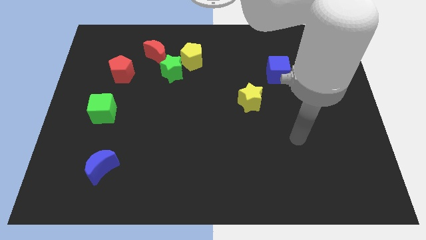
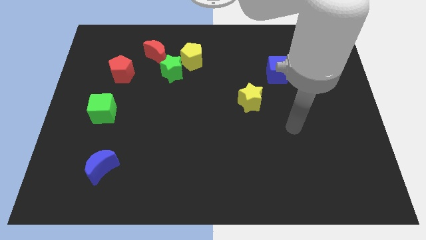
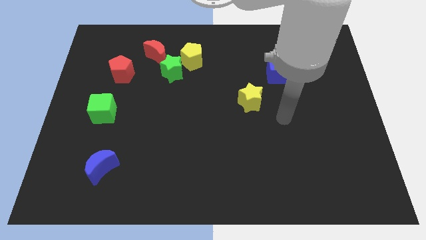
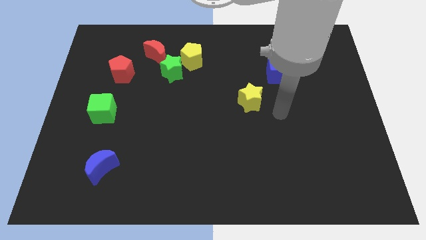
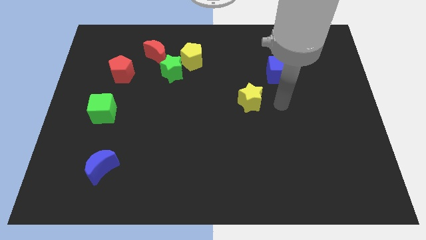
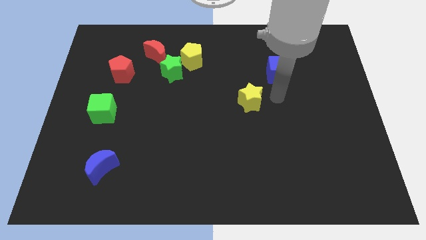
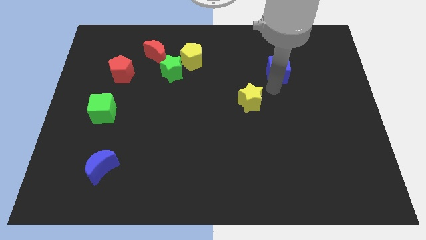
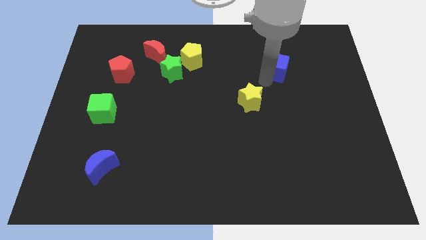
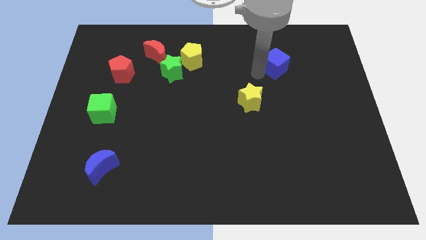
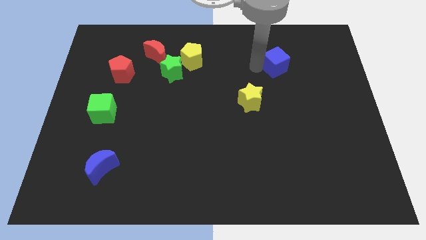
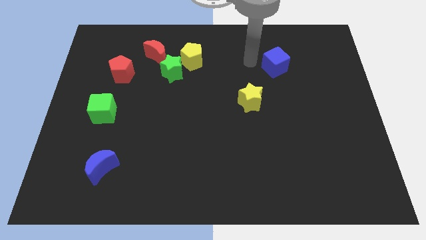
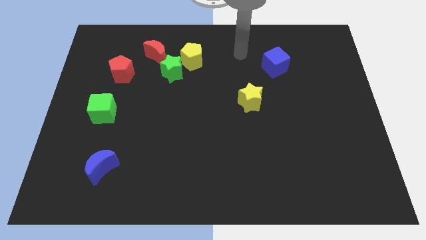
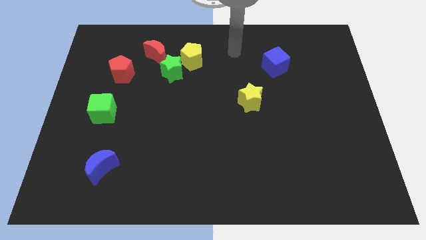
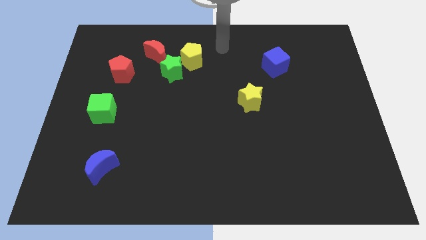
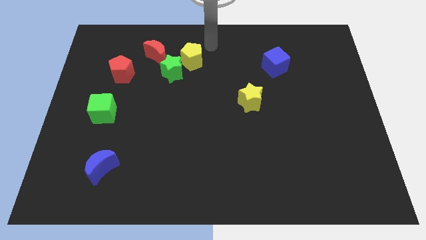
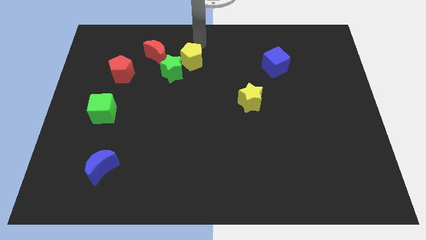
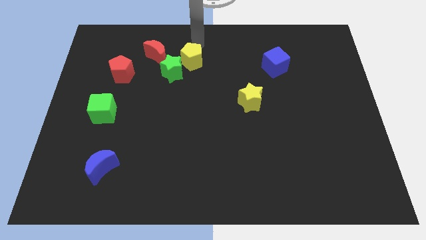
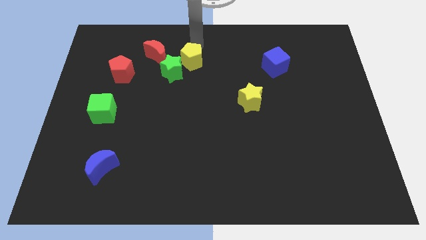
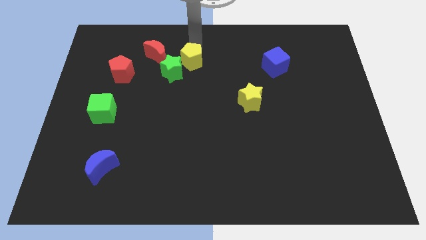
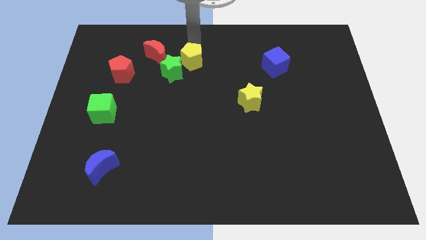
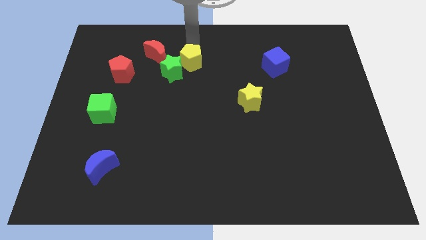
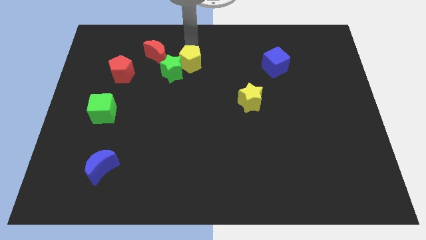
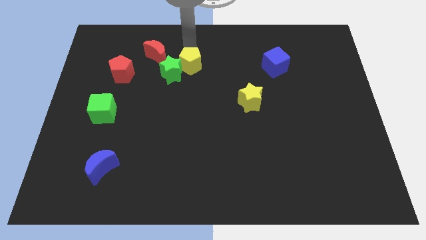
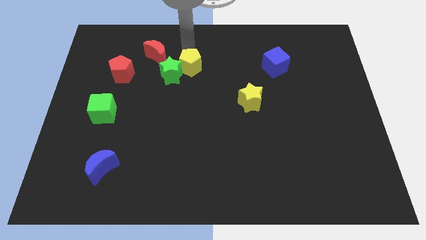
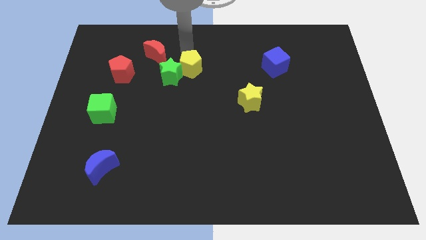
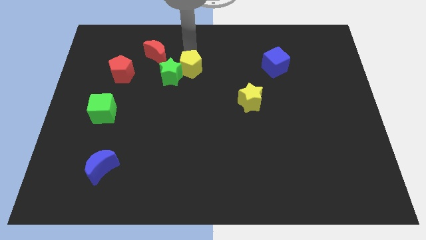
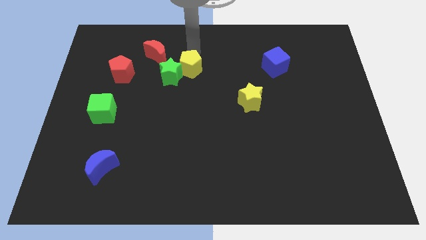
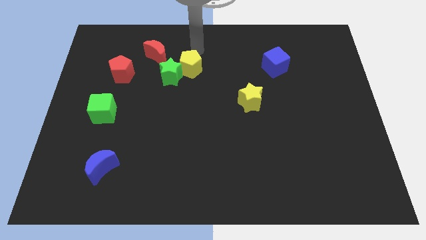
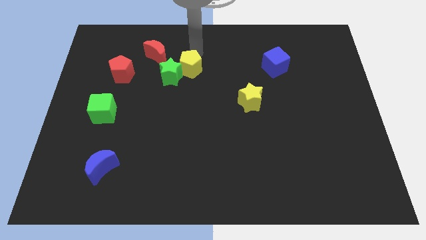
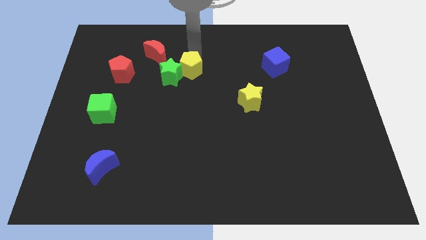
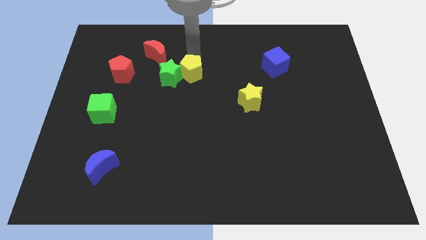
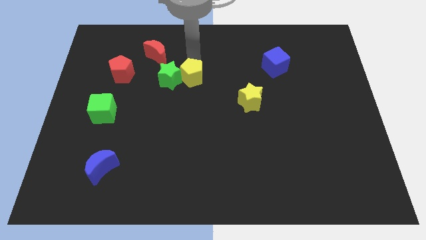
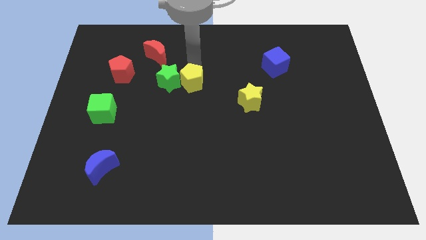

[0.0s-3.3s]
move the yellow pentagon somewhat downwards

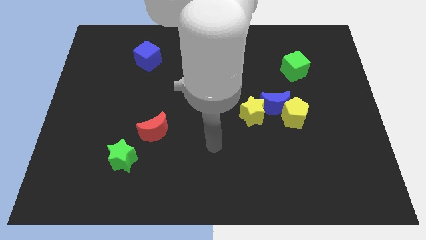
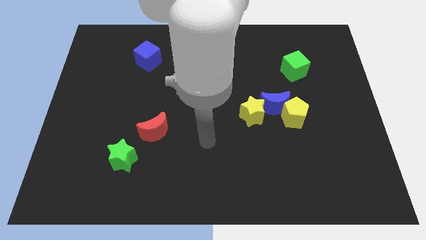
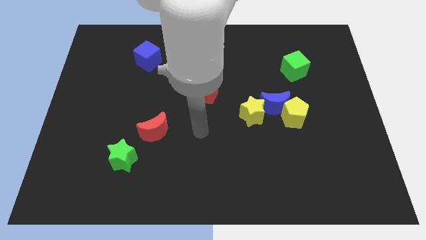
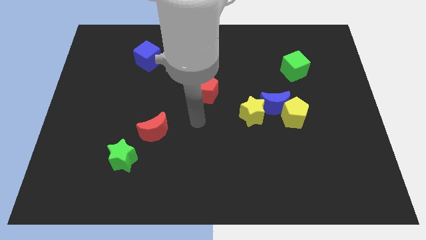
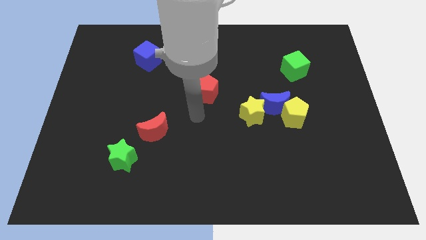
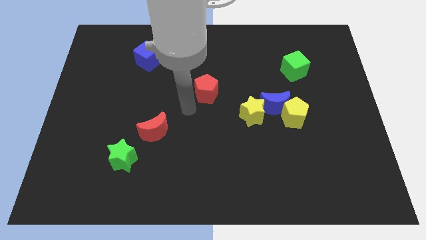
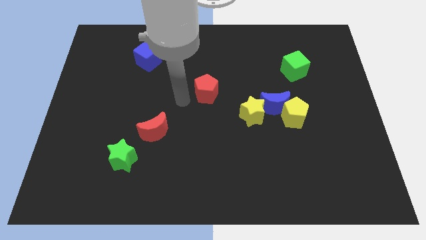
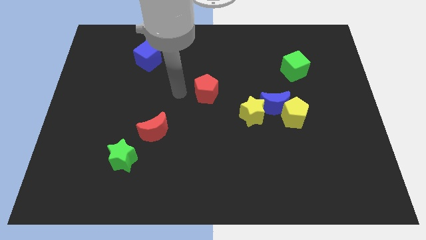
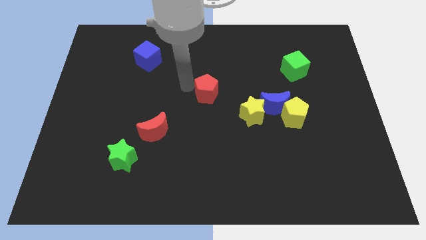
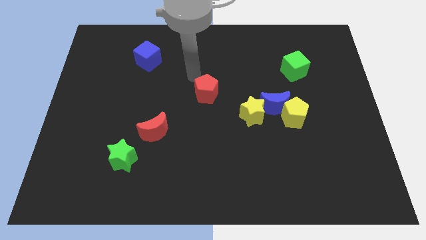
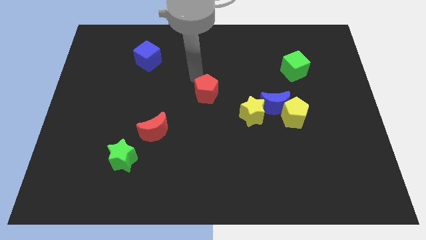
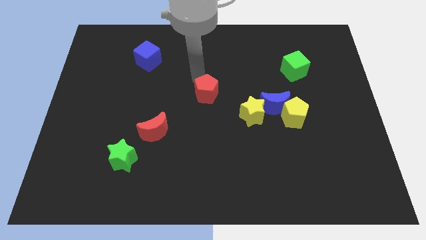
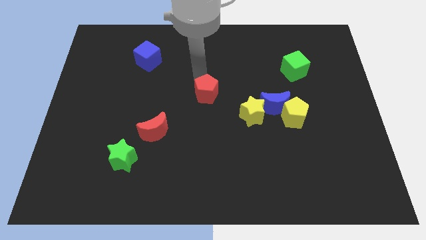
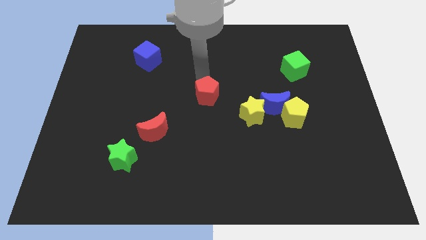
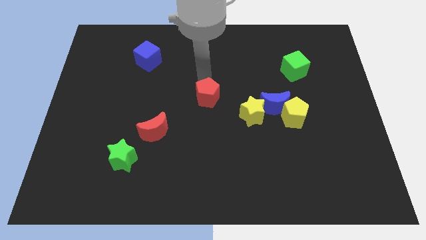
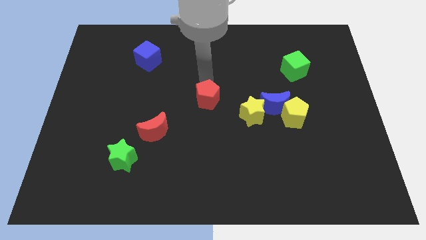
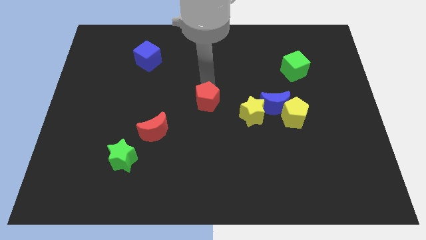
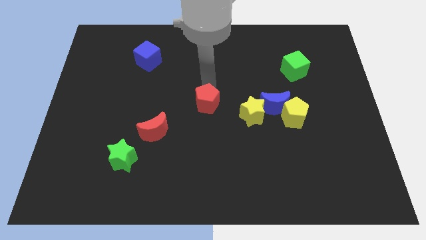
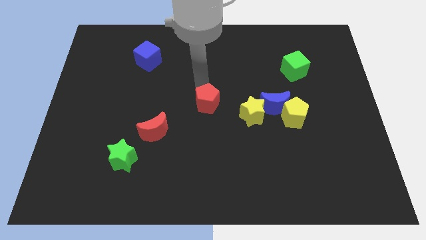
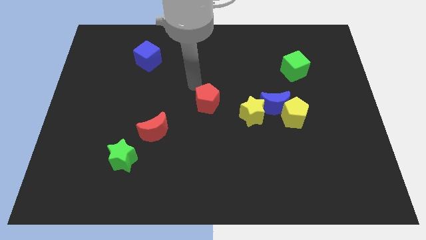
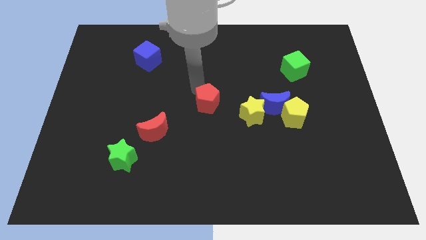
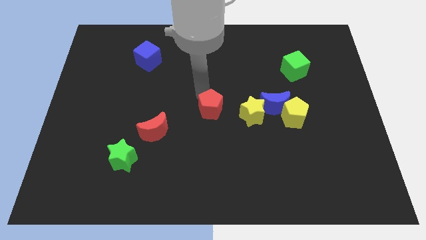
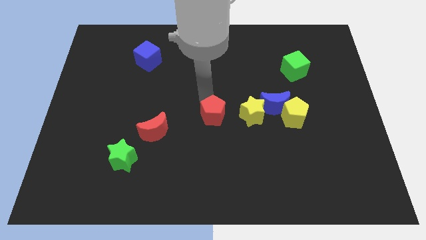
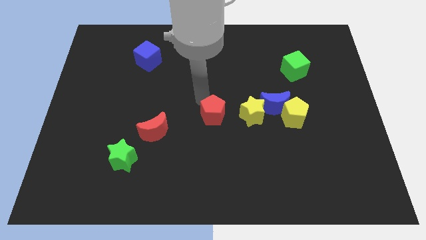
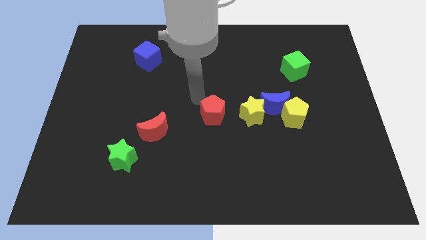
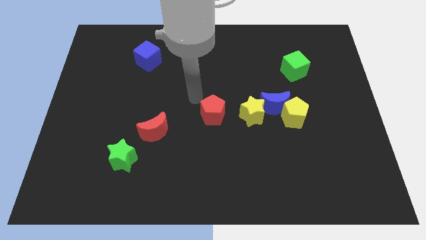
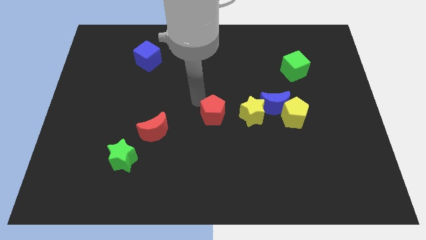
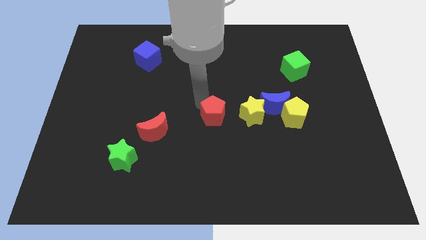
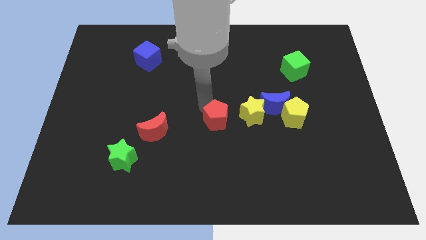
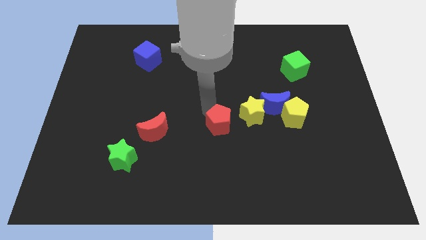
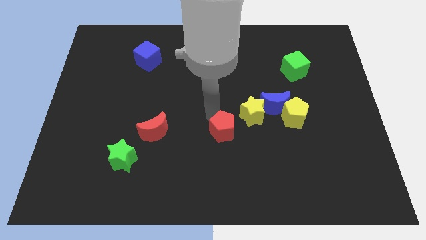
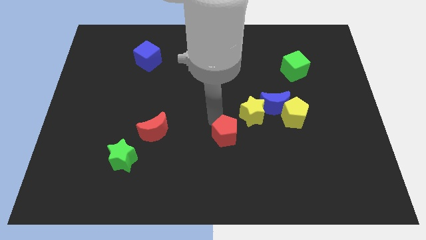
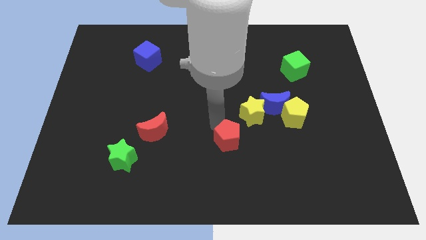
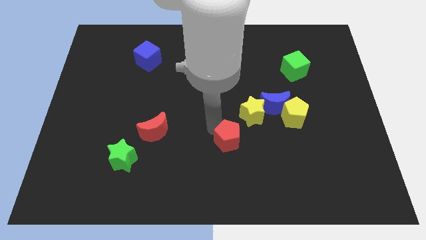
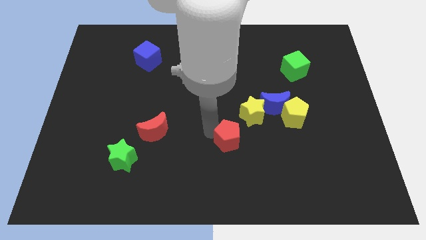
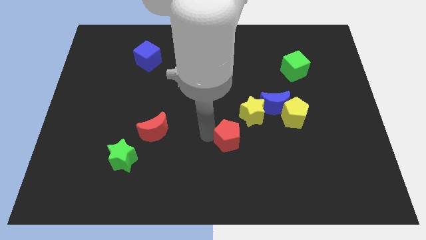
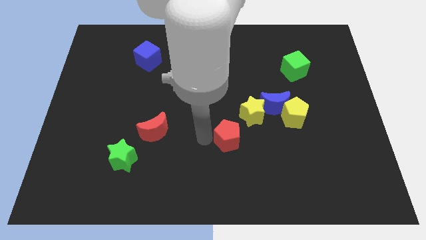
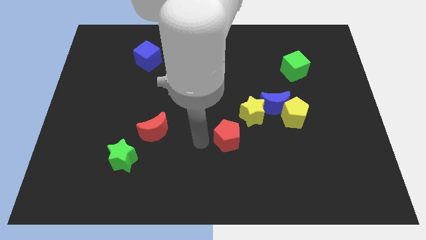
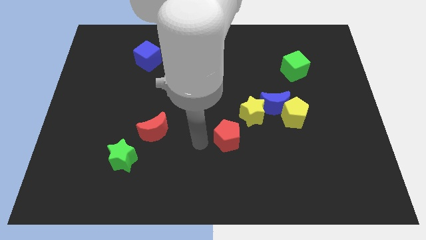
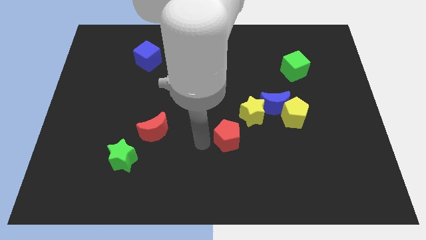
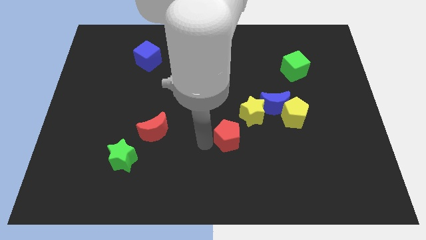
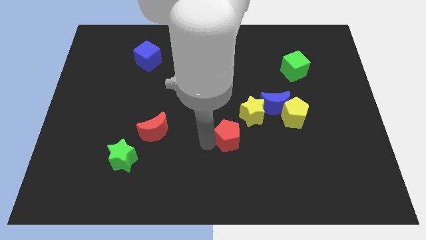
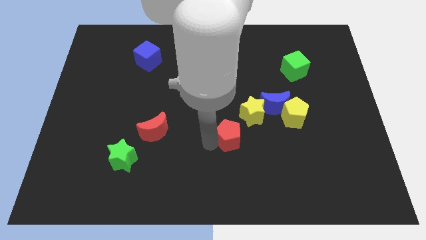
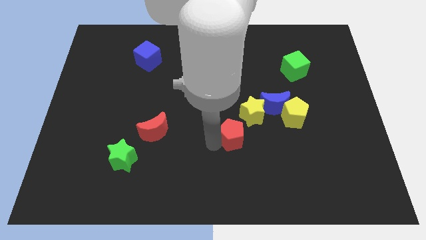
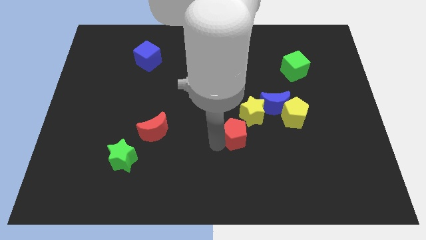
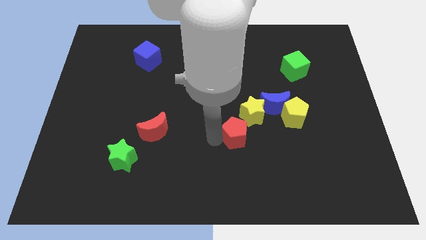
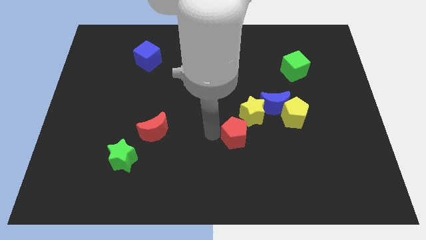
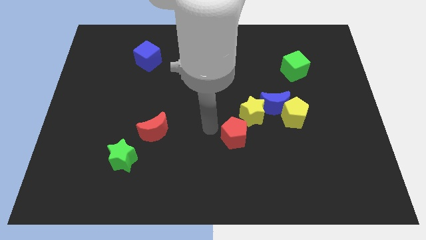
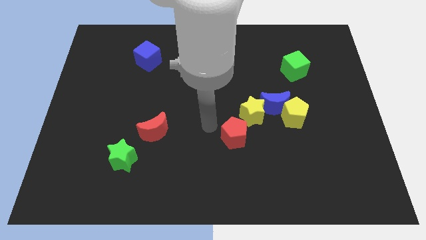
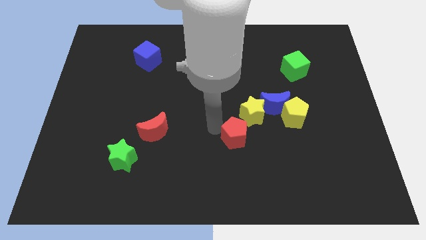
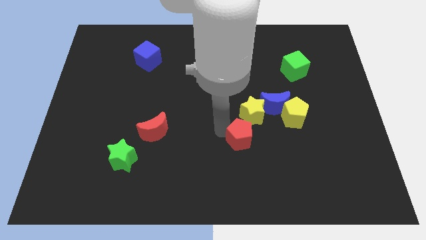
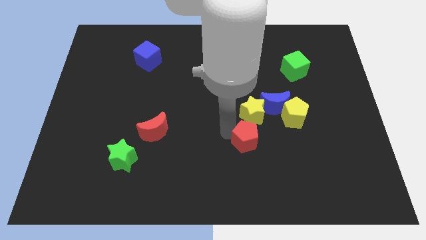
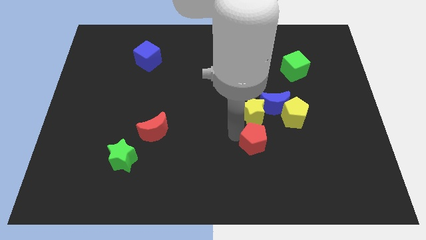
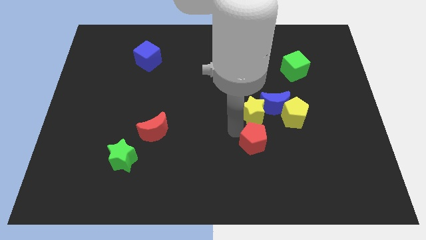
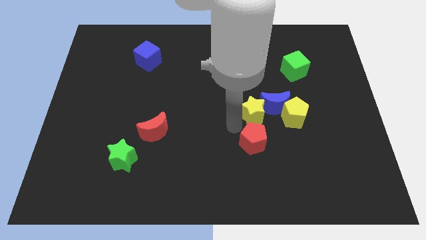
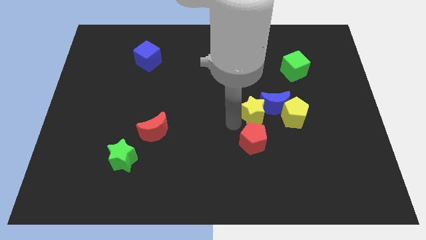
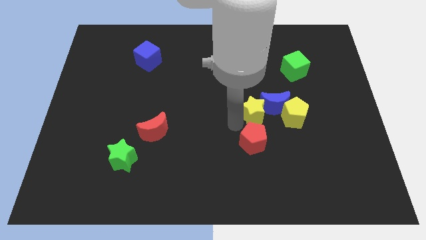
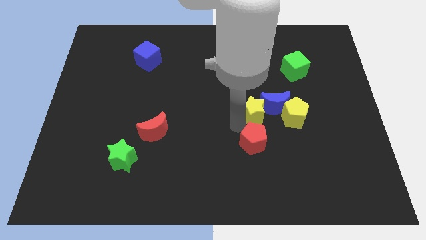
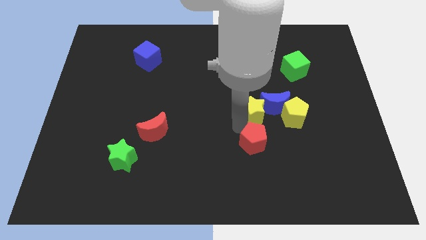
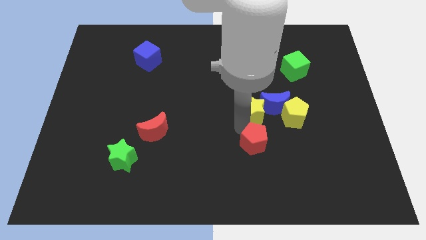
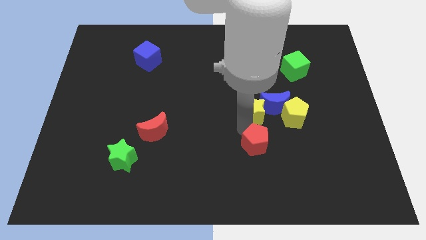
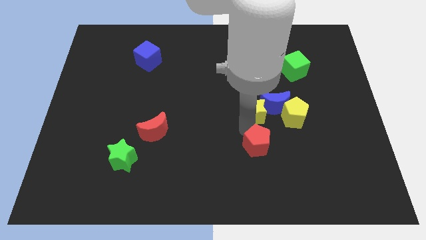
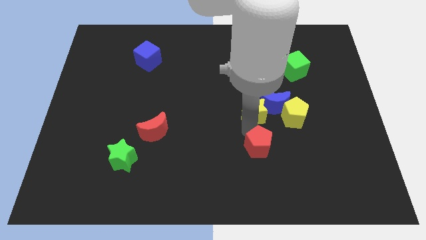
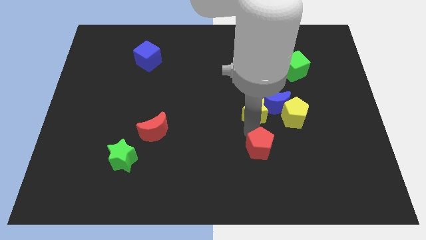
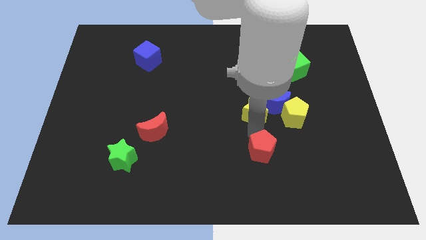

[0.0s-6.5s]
move the red pentagon diagonally downwards and right
